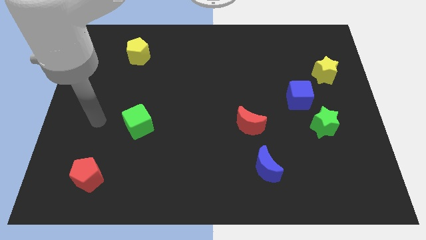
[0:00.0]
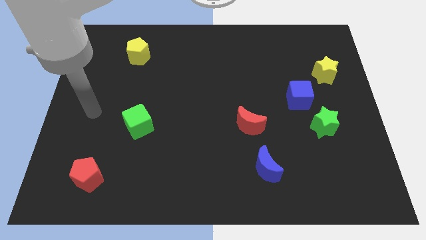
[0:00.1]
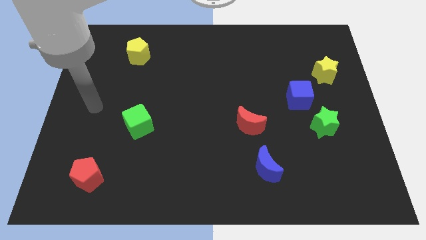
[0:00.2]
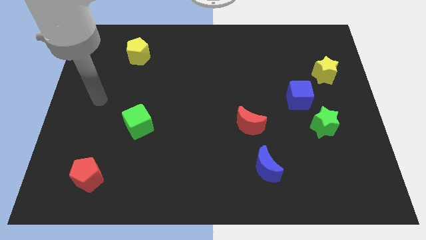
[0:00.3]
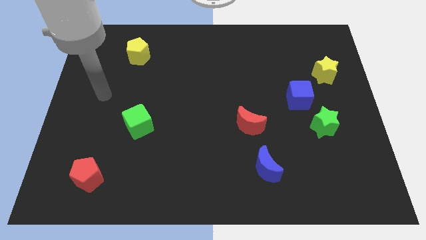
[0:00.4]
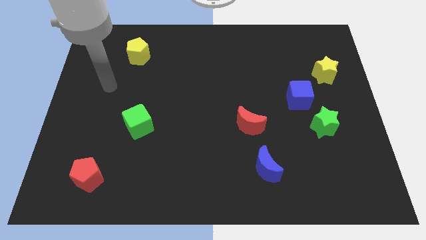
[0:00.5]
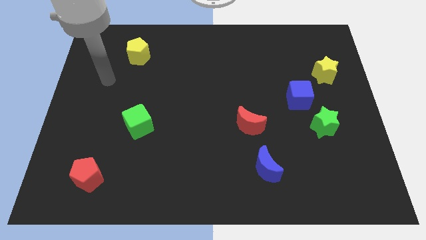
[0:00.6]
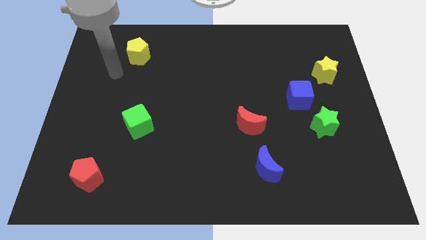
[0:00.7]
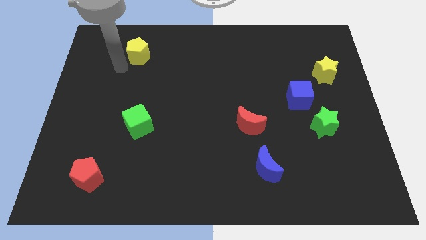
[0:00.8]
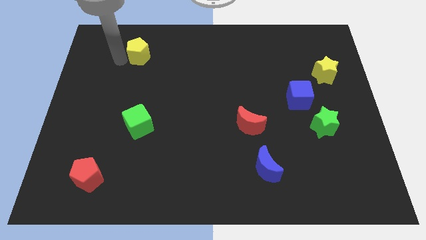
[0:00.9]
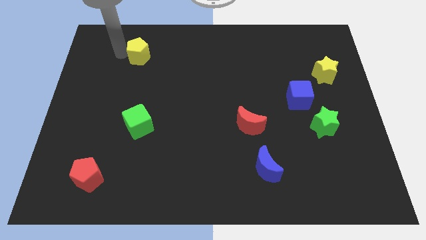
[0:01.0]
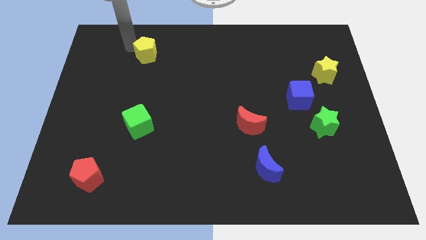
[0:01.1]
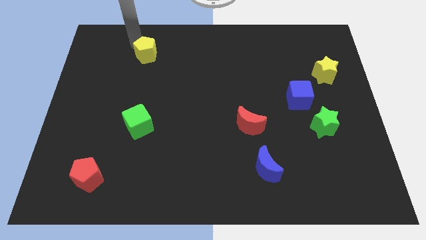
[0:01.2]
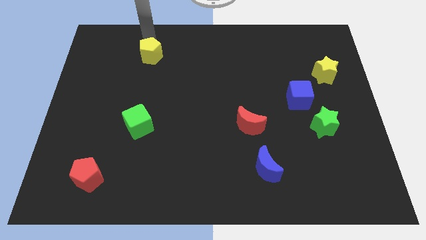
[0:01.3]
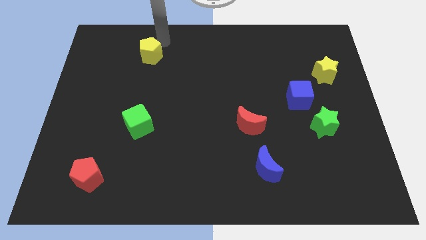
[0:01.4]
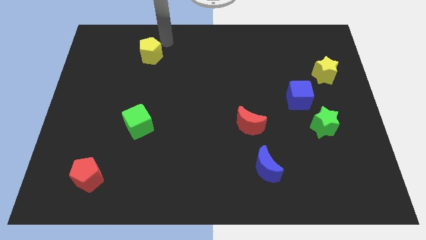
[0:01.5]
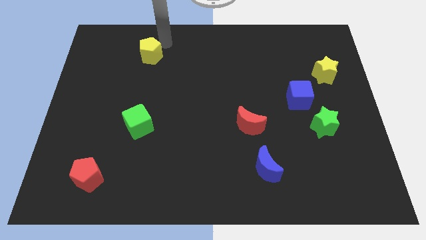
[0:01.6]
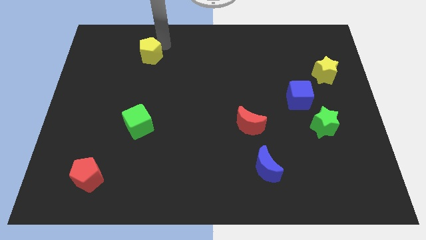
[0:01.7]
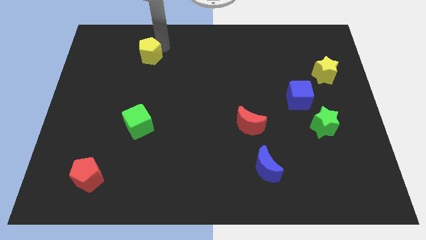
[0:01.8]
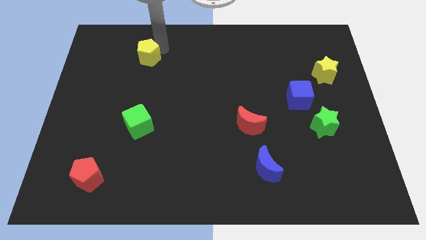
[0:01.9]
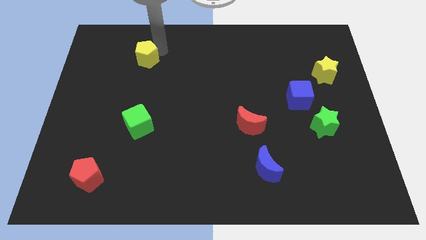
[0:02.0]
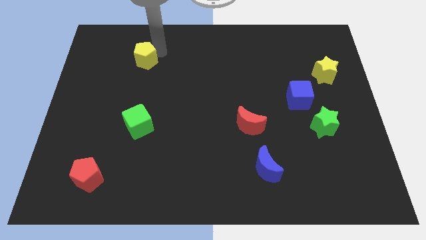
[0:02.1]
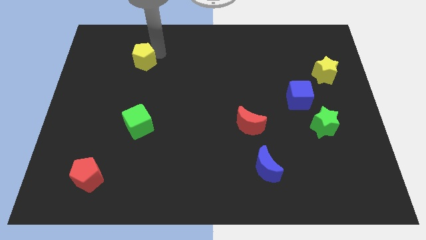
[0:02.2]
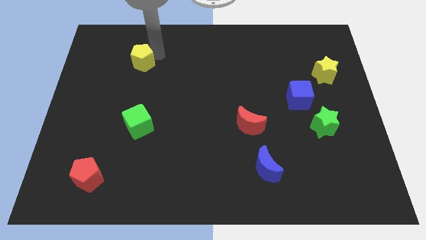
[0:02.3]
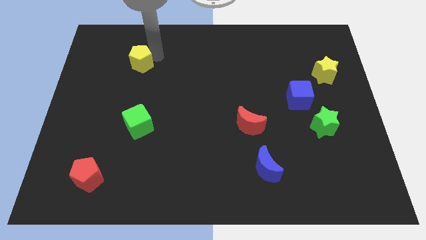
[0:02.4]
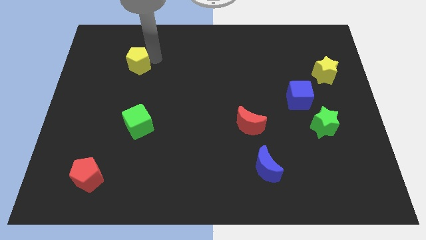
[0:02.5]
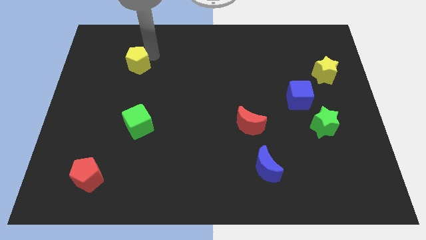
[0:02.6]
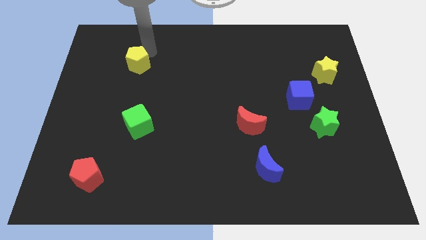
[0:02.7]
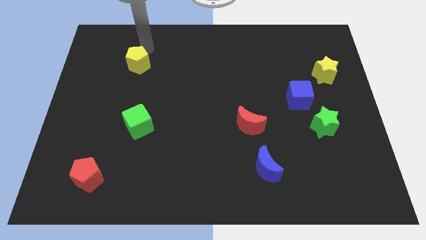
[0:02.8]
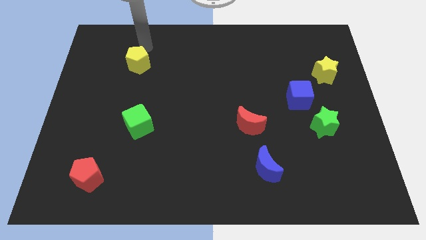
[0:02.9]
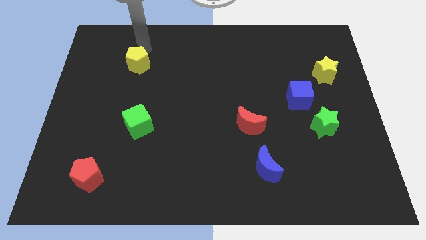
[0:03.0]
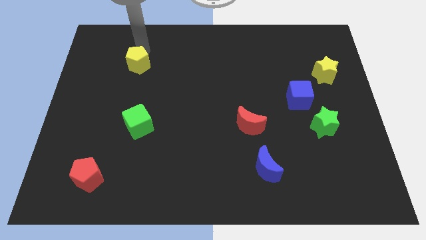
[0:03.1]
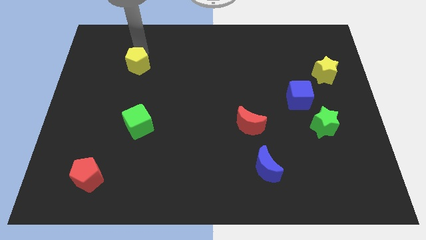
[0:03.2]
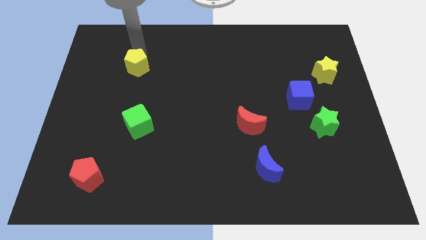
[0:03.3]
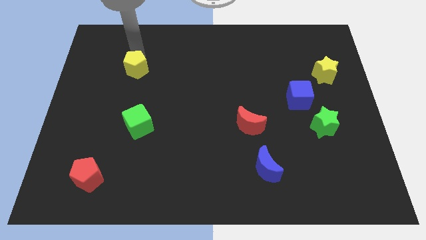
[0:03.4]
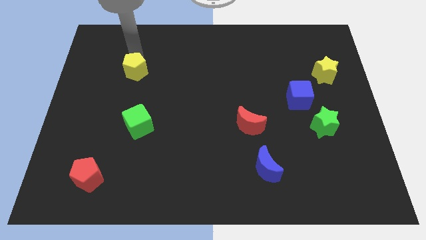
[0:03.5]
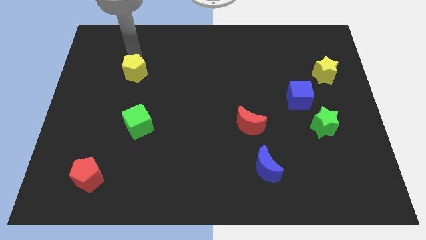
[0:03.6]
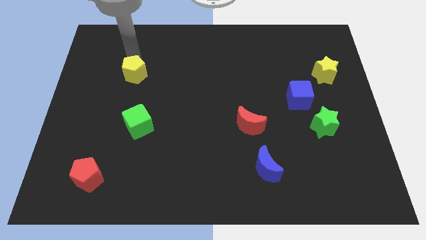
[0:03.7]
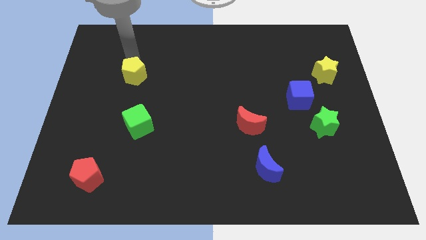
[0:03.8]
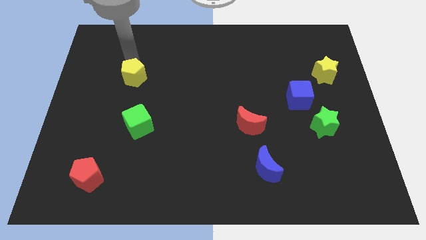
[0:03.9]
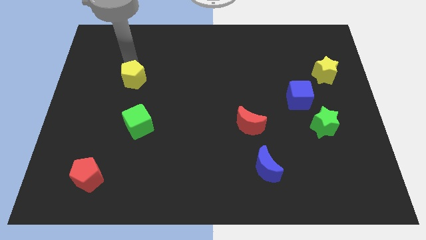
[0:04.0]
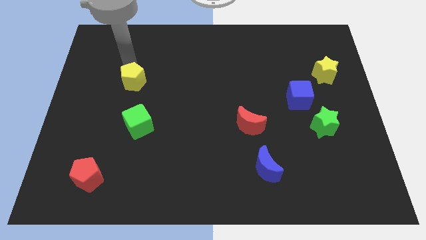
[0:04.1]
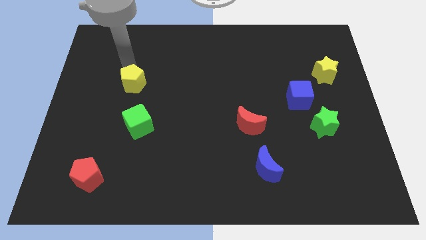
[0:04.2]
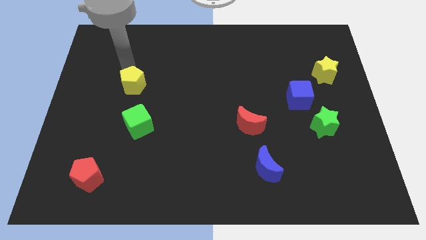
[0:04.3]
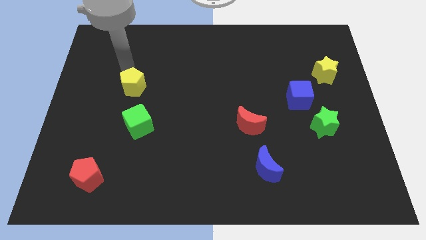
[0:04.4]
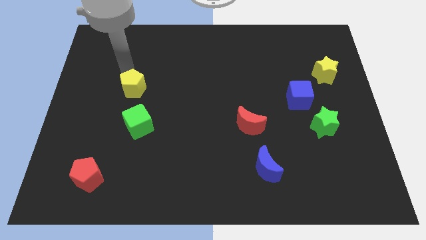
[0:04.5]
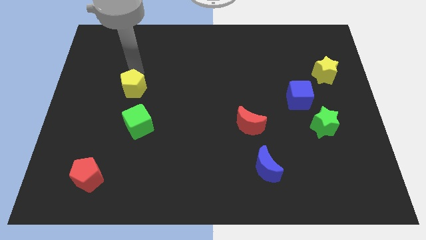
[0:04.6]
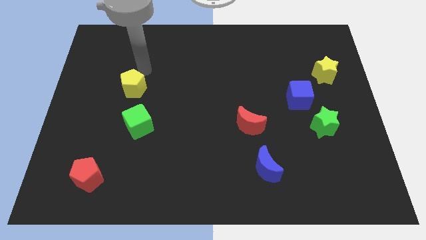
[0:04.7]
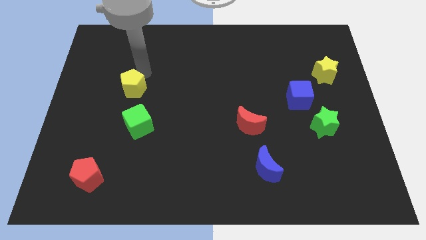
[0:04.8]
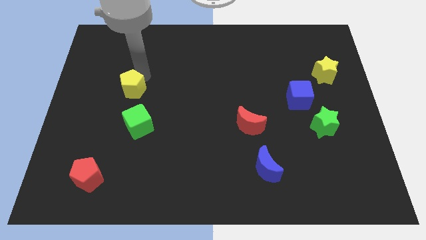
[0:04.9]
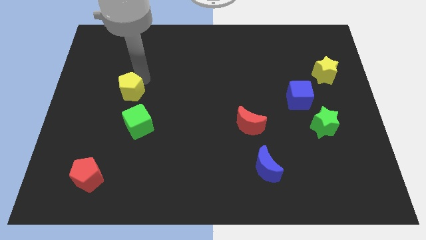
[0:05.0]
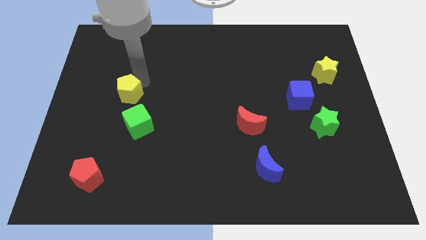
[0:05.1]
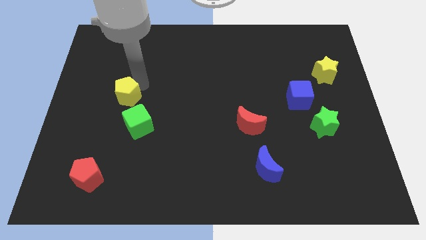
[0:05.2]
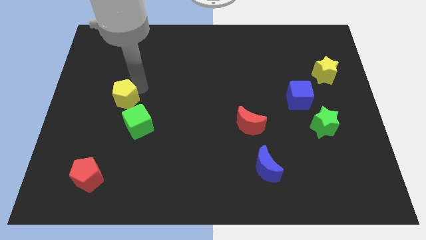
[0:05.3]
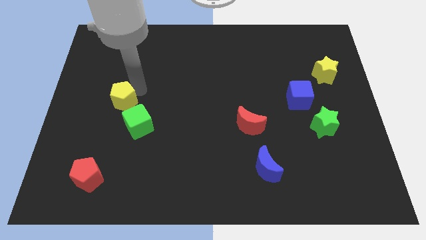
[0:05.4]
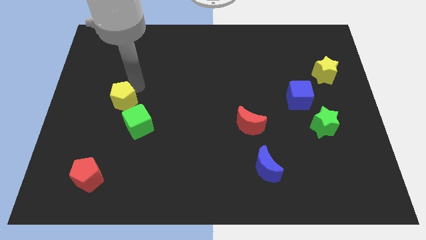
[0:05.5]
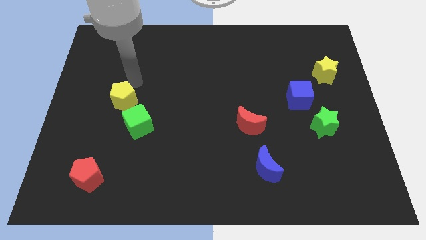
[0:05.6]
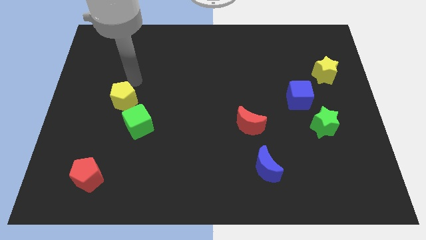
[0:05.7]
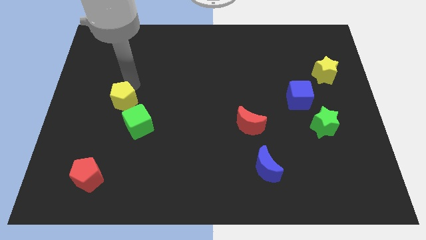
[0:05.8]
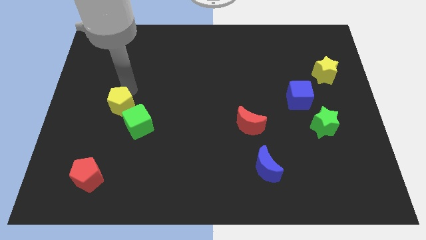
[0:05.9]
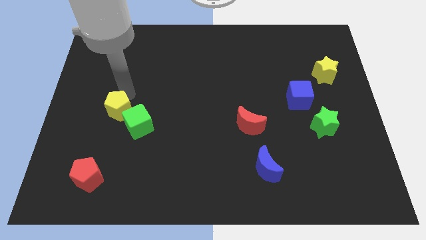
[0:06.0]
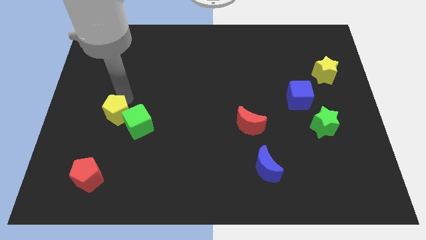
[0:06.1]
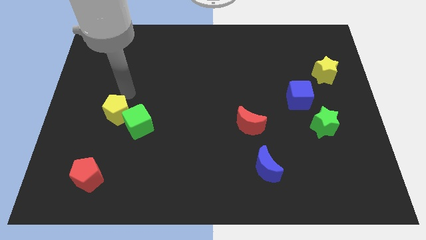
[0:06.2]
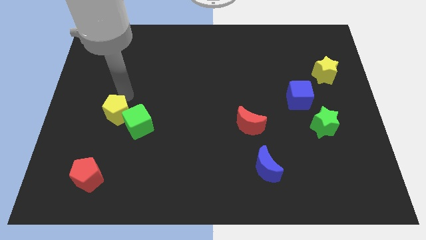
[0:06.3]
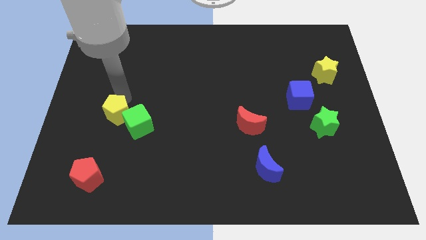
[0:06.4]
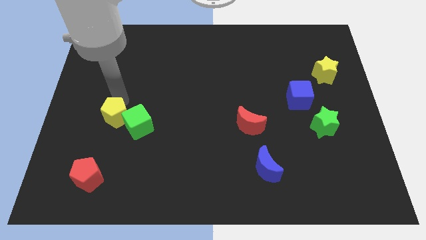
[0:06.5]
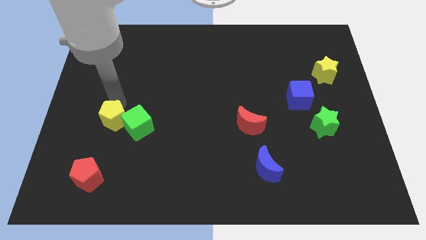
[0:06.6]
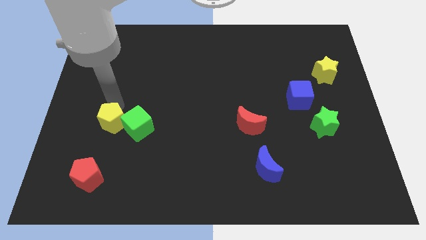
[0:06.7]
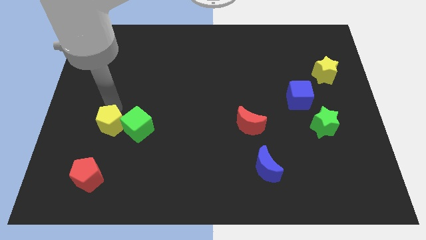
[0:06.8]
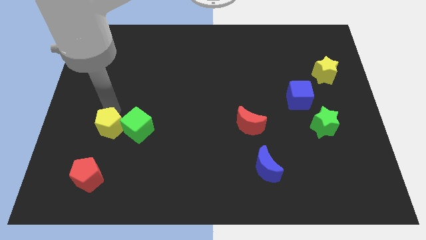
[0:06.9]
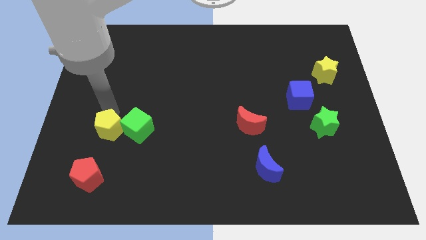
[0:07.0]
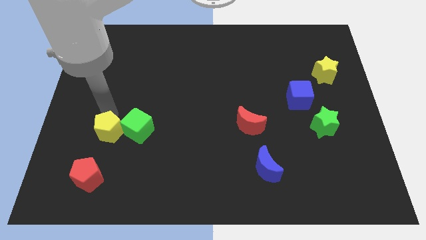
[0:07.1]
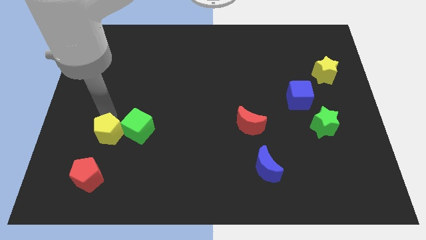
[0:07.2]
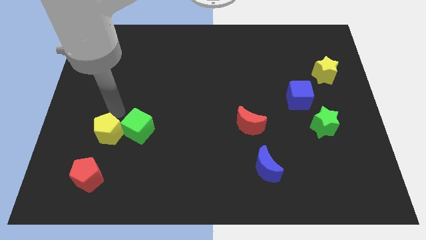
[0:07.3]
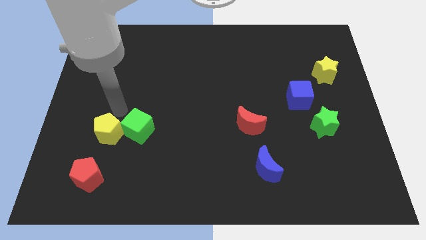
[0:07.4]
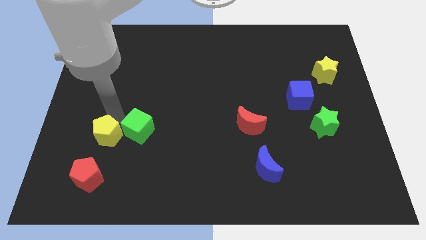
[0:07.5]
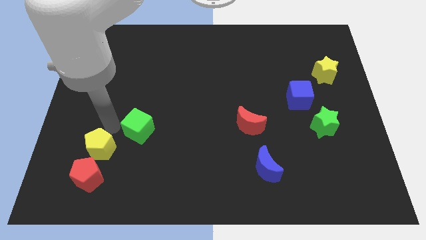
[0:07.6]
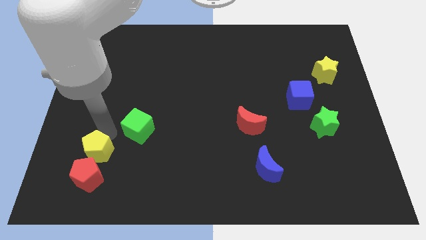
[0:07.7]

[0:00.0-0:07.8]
put the yellow pentagon to the red pentagon

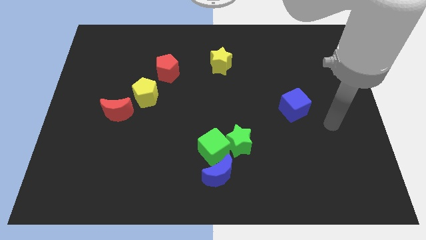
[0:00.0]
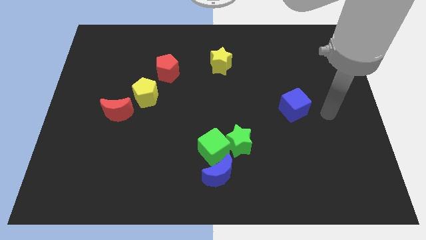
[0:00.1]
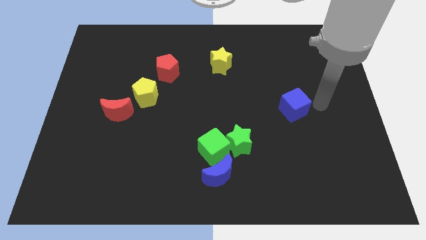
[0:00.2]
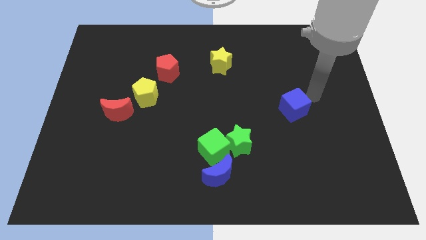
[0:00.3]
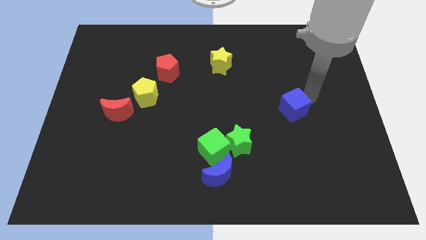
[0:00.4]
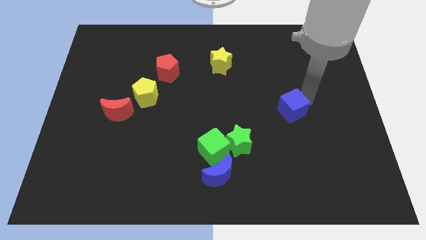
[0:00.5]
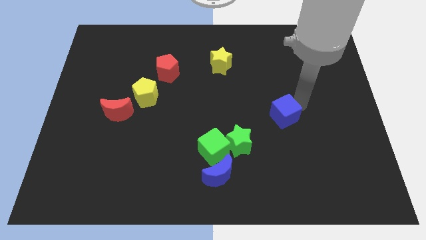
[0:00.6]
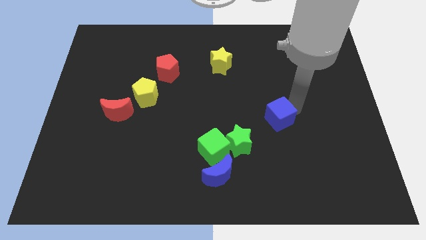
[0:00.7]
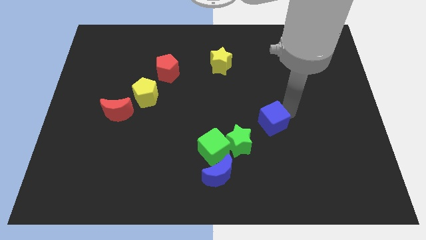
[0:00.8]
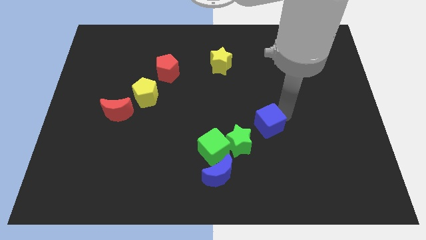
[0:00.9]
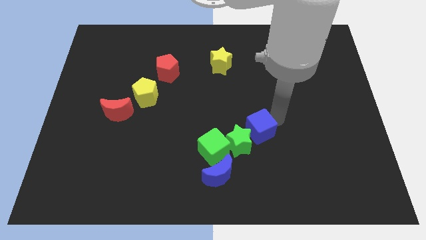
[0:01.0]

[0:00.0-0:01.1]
slide the blue cube towards the green star
